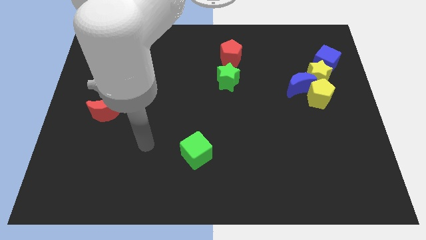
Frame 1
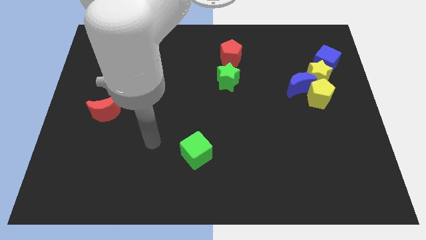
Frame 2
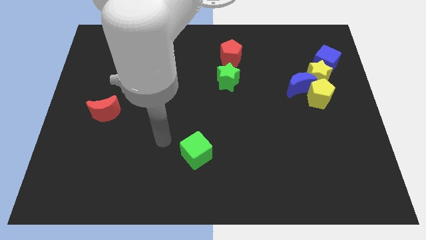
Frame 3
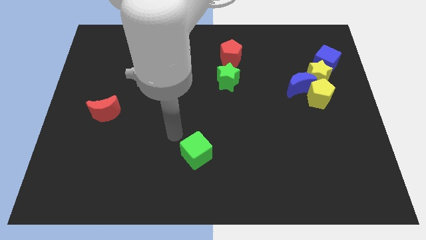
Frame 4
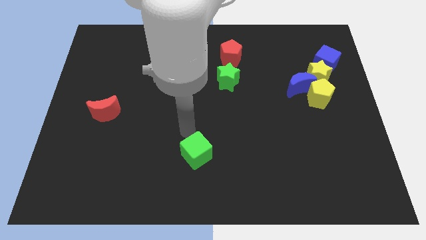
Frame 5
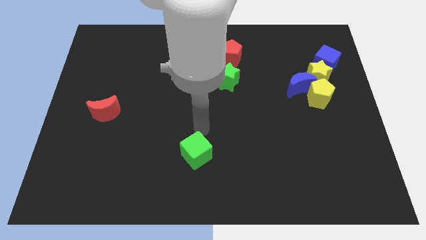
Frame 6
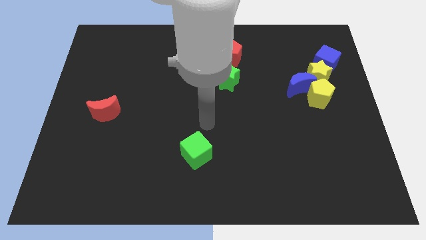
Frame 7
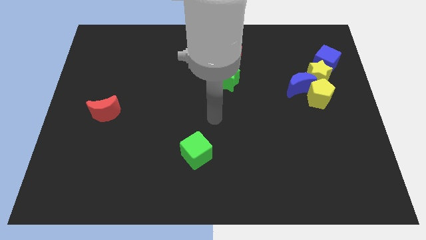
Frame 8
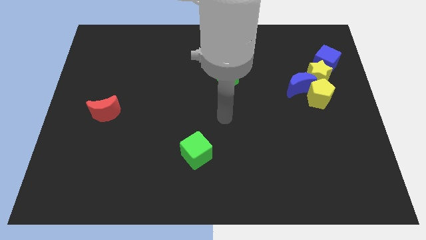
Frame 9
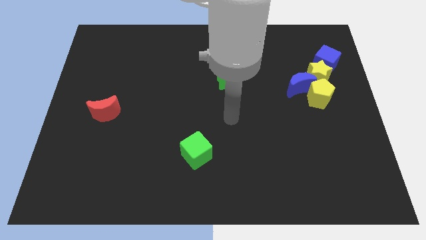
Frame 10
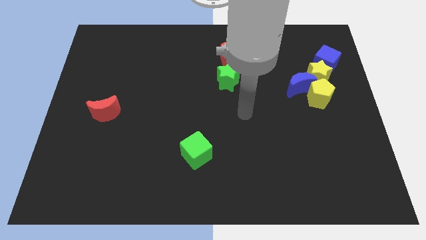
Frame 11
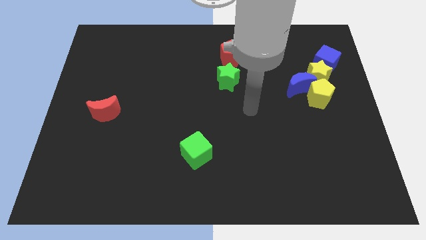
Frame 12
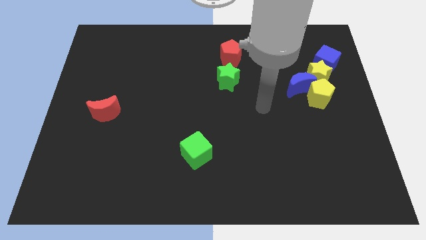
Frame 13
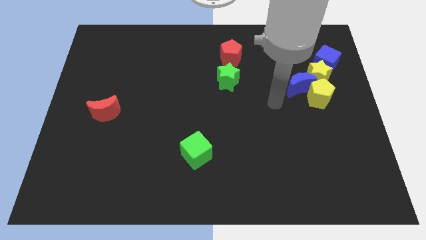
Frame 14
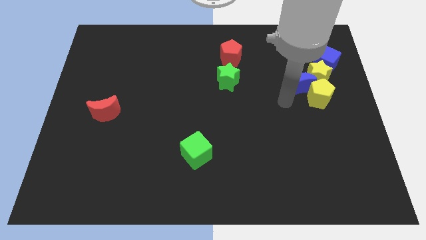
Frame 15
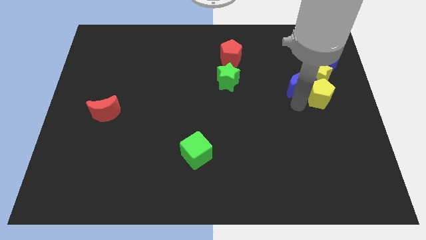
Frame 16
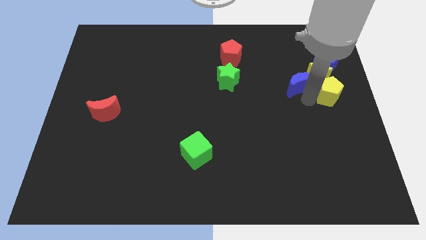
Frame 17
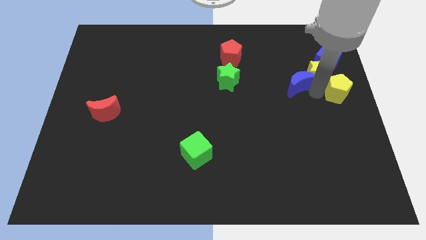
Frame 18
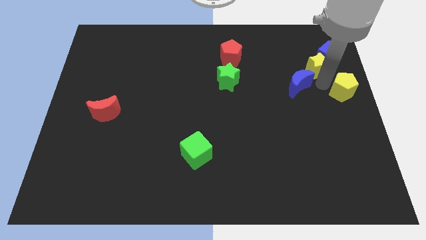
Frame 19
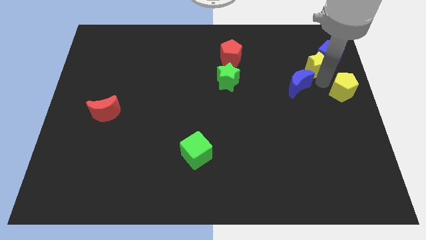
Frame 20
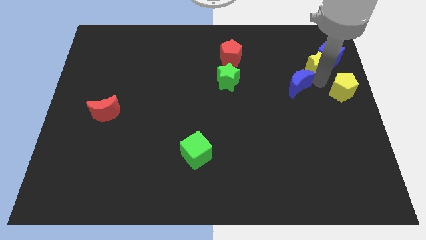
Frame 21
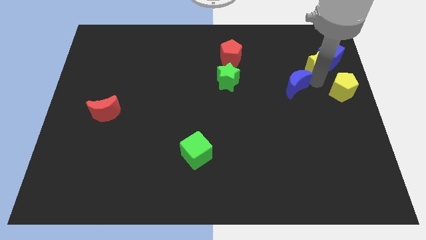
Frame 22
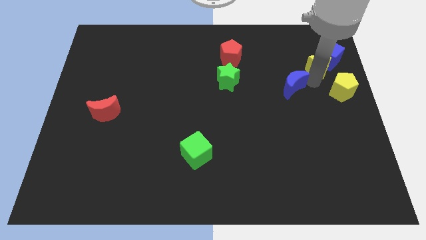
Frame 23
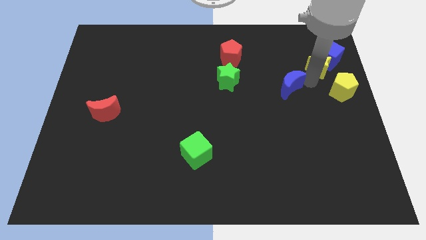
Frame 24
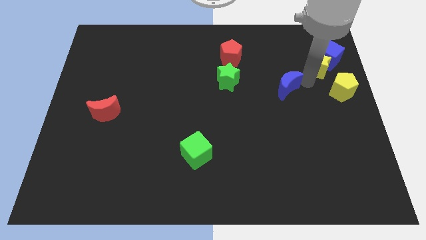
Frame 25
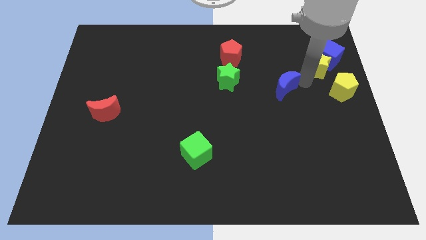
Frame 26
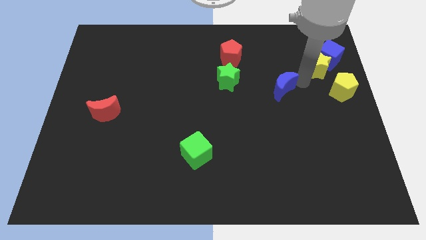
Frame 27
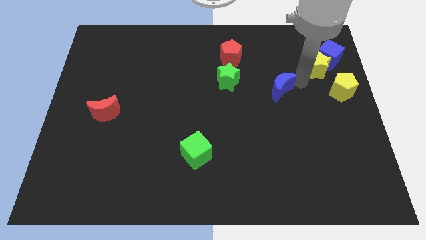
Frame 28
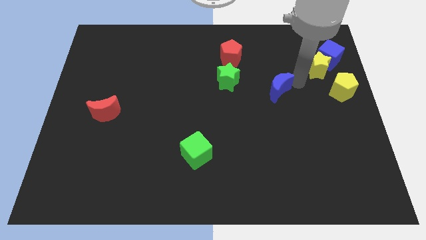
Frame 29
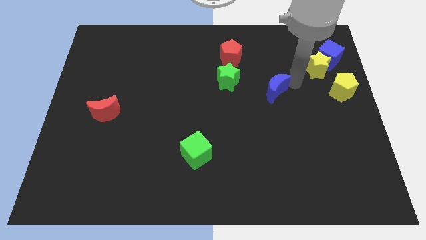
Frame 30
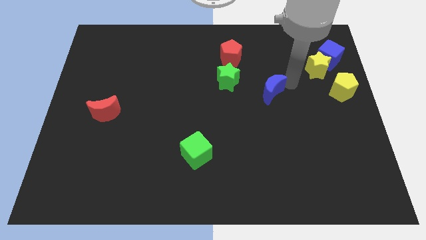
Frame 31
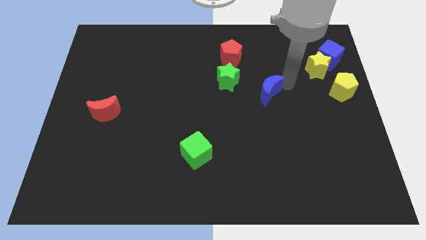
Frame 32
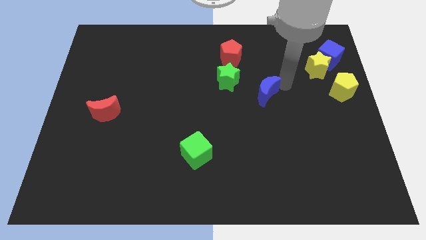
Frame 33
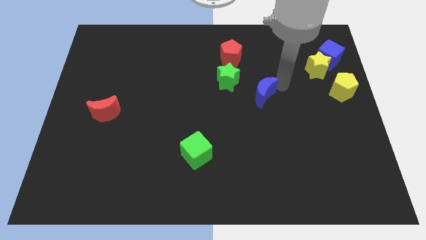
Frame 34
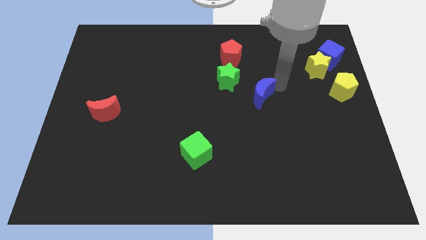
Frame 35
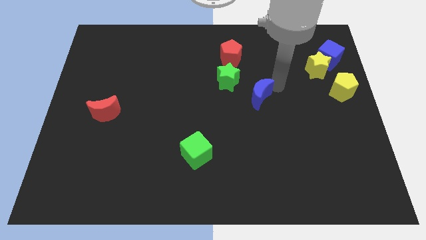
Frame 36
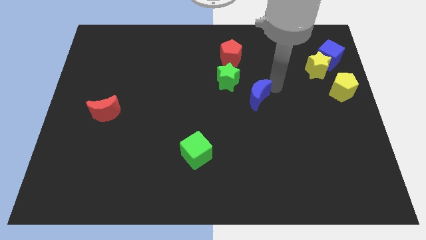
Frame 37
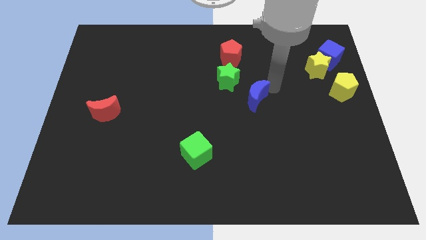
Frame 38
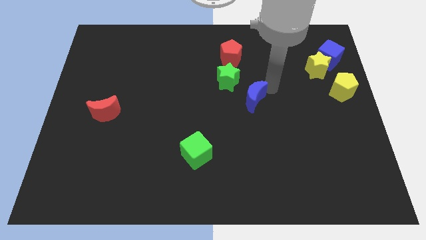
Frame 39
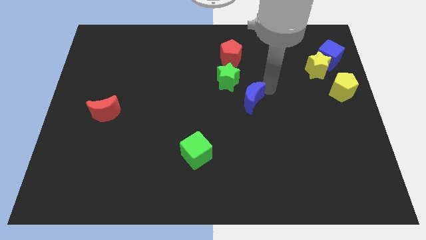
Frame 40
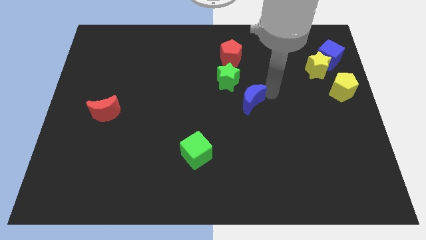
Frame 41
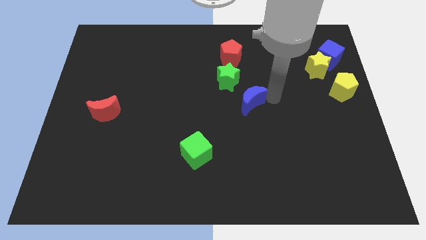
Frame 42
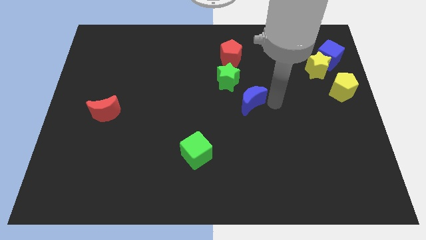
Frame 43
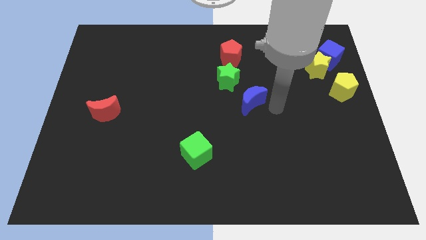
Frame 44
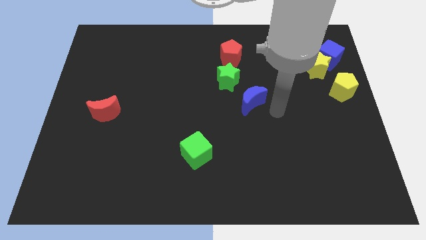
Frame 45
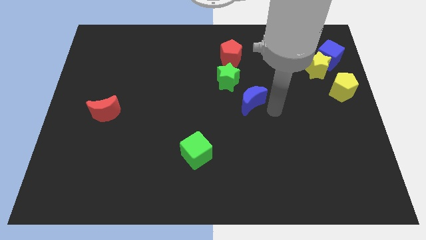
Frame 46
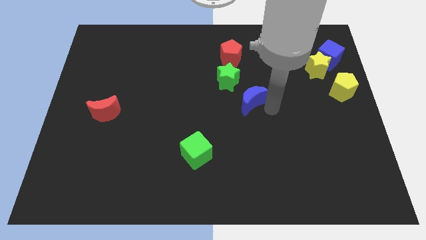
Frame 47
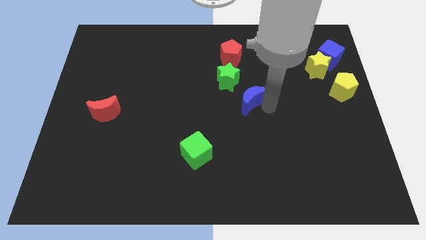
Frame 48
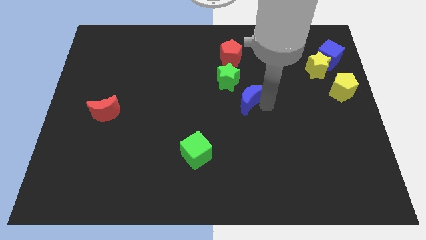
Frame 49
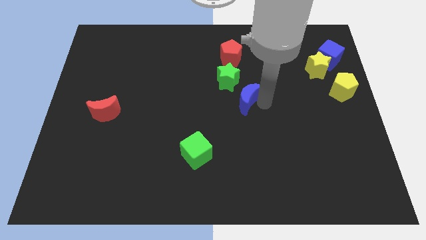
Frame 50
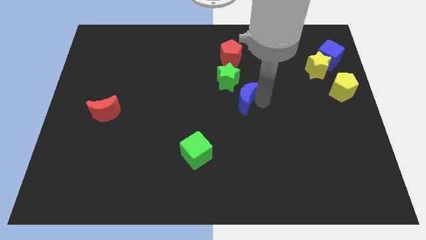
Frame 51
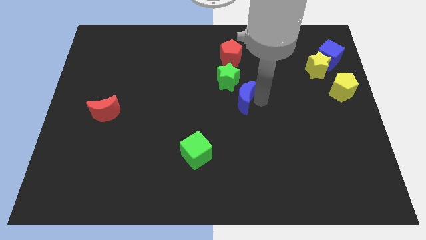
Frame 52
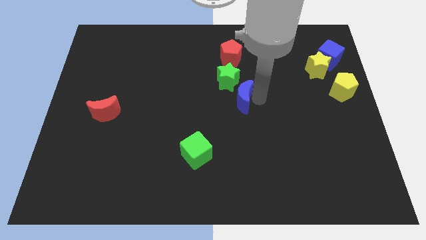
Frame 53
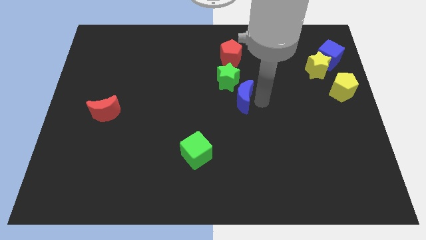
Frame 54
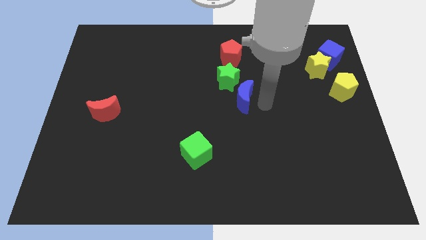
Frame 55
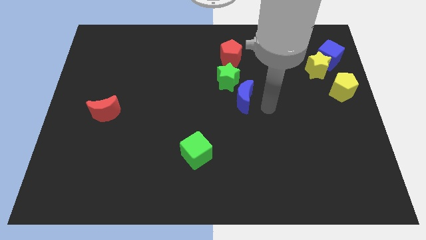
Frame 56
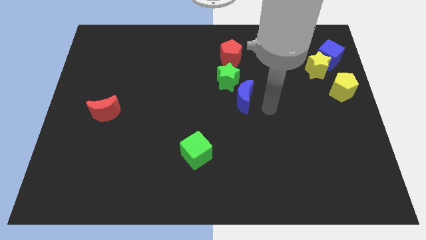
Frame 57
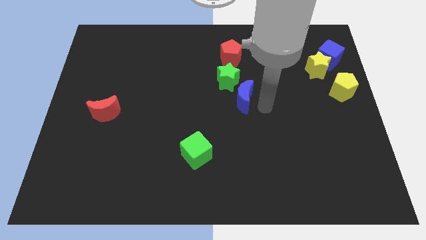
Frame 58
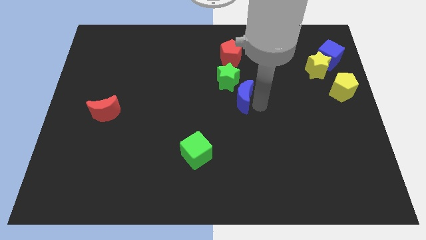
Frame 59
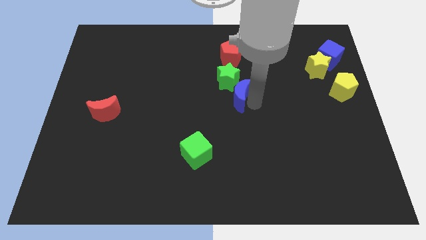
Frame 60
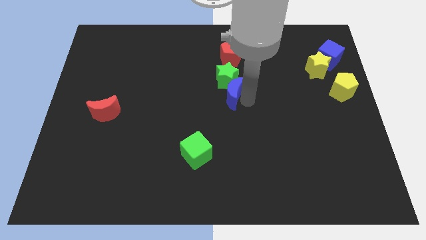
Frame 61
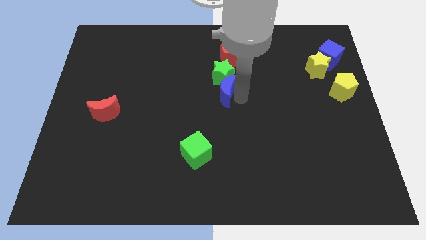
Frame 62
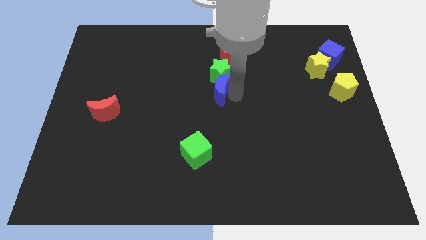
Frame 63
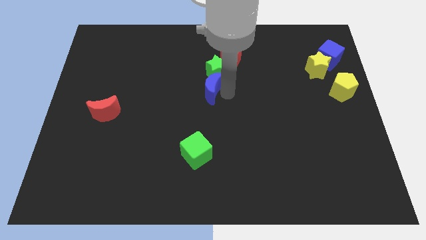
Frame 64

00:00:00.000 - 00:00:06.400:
push the blue moon to the left

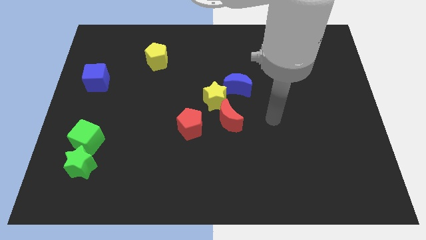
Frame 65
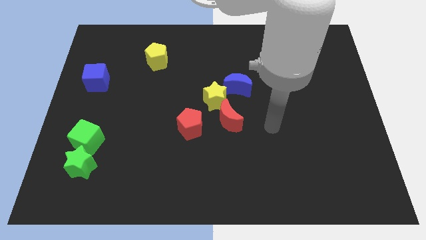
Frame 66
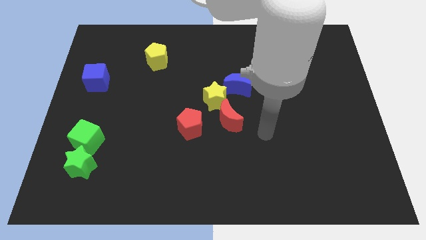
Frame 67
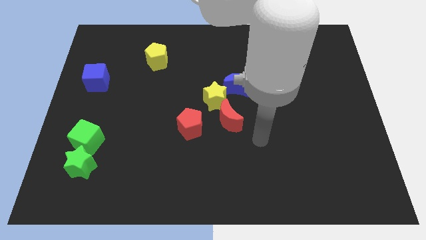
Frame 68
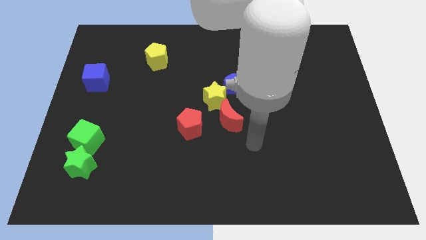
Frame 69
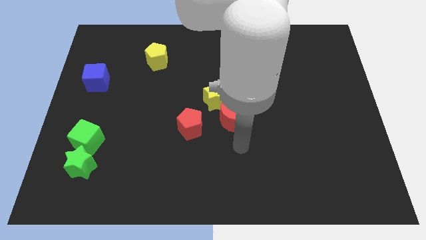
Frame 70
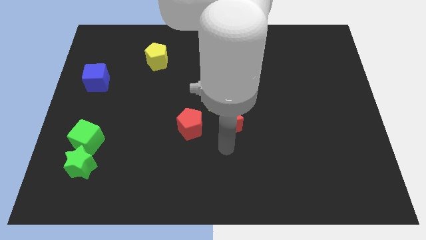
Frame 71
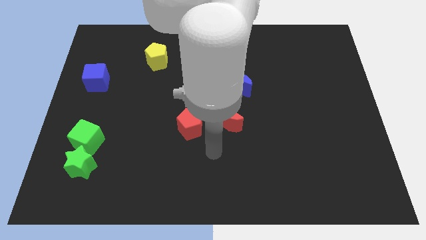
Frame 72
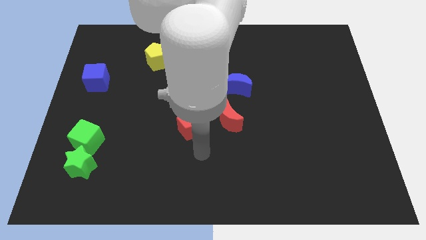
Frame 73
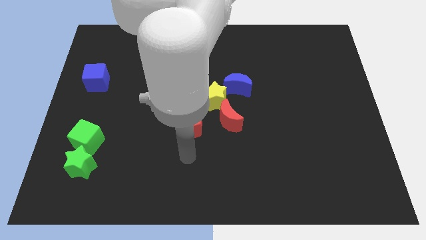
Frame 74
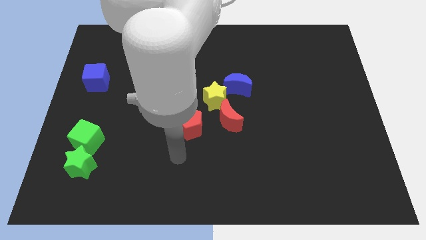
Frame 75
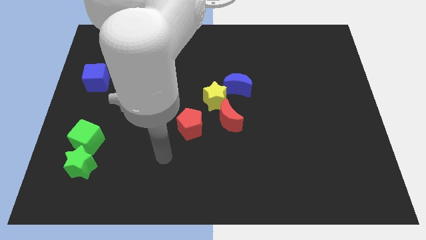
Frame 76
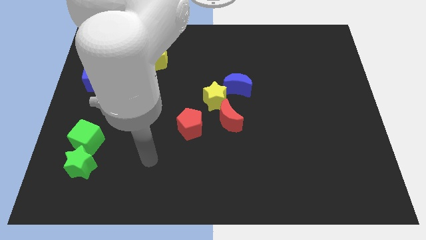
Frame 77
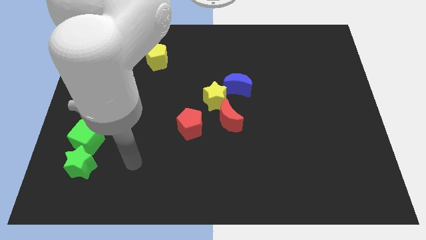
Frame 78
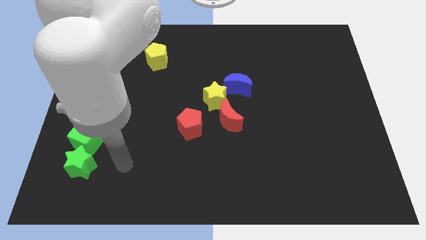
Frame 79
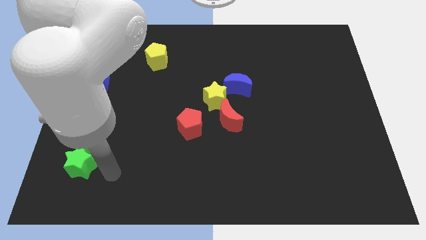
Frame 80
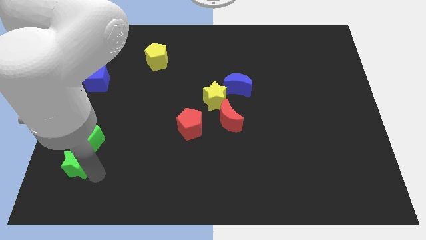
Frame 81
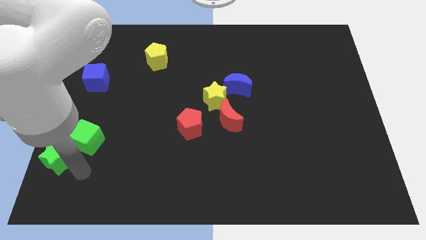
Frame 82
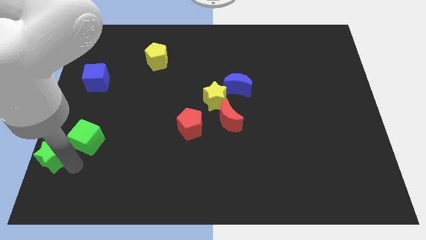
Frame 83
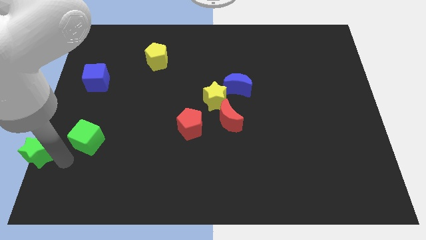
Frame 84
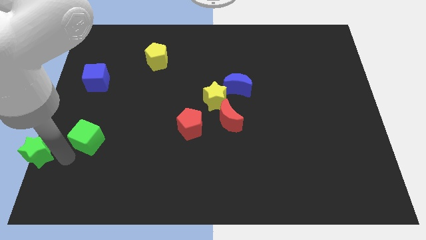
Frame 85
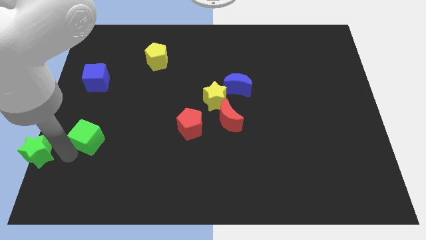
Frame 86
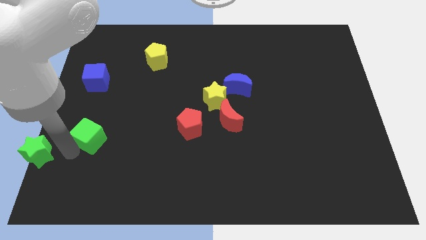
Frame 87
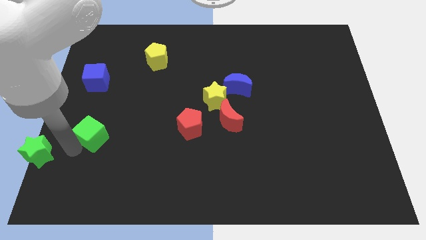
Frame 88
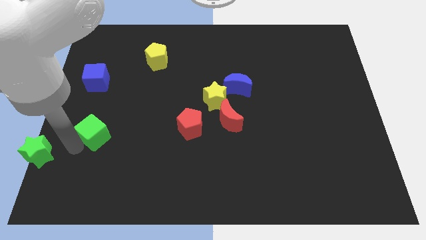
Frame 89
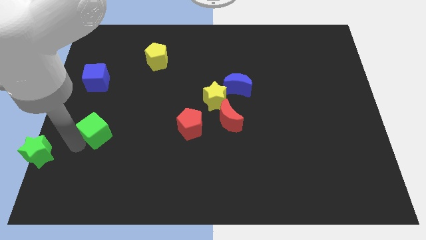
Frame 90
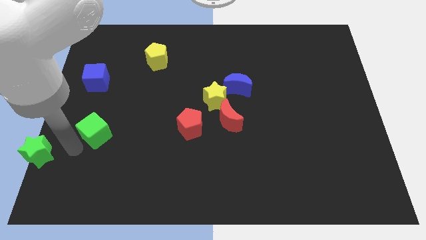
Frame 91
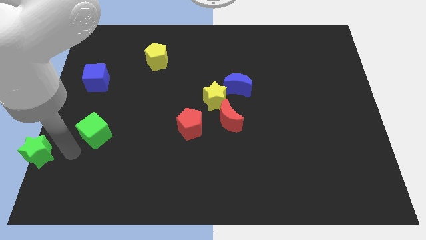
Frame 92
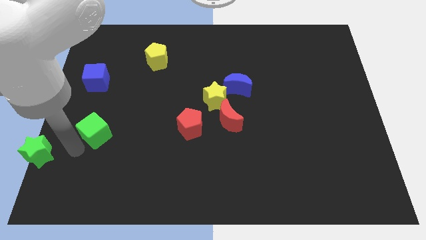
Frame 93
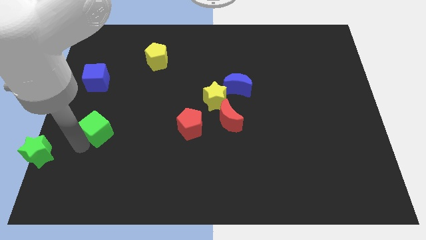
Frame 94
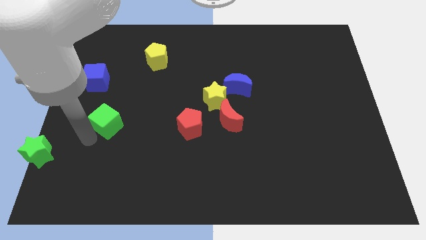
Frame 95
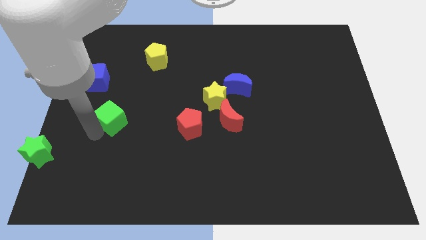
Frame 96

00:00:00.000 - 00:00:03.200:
push the green cube upwards and right a bit
